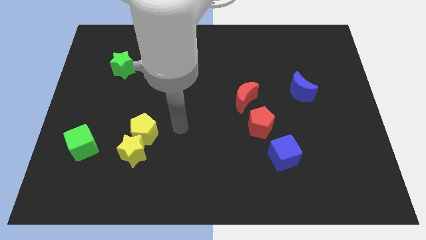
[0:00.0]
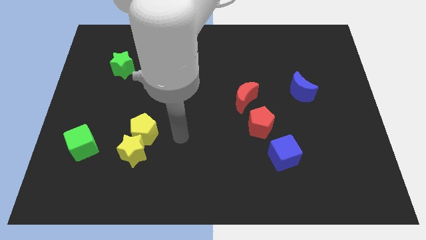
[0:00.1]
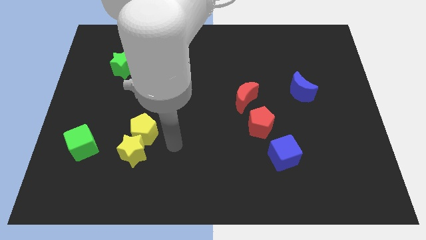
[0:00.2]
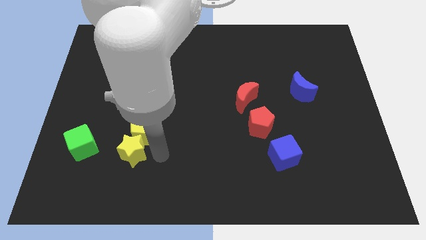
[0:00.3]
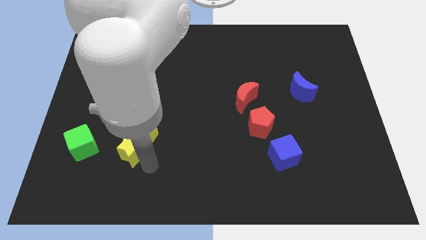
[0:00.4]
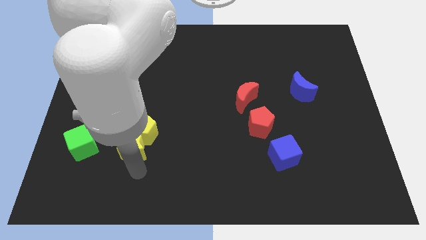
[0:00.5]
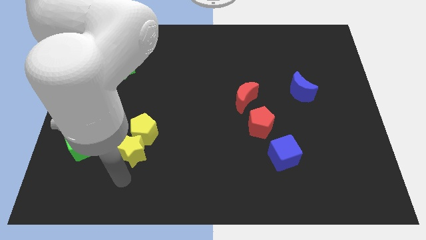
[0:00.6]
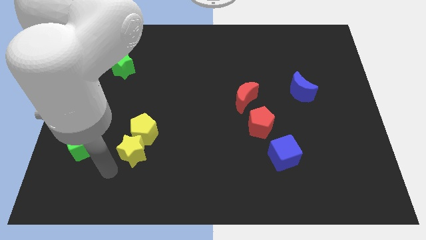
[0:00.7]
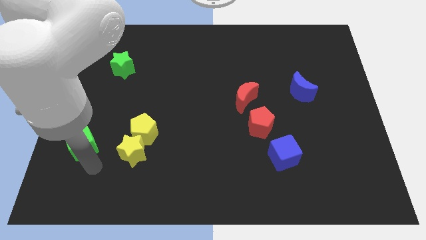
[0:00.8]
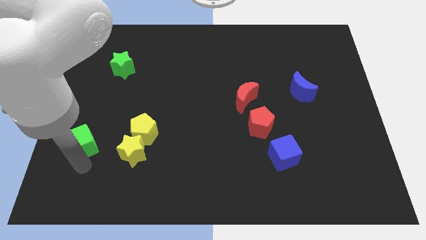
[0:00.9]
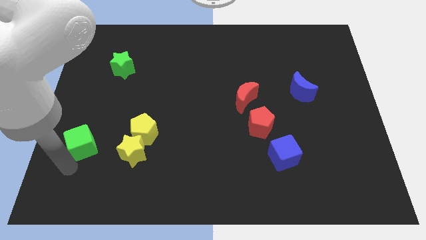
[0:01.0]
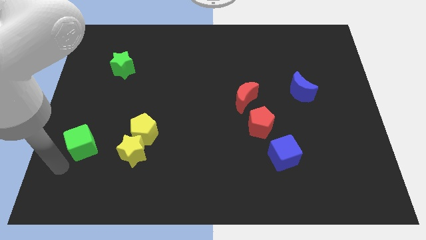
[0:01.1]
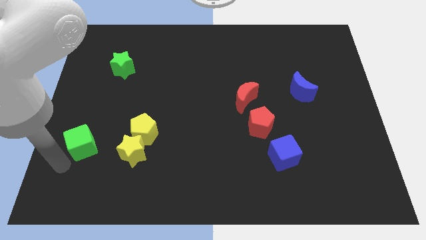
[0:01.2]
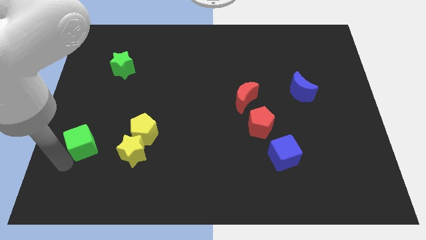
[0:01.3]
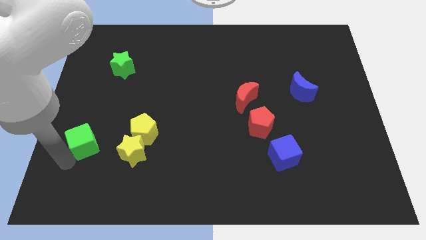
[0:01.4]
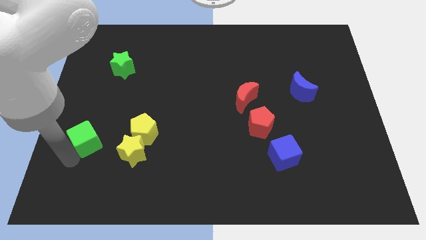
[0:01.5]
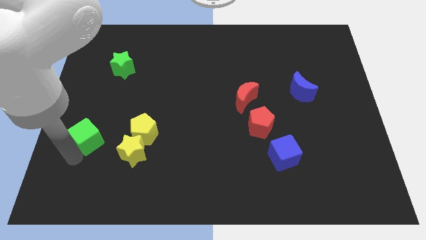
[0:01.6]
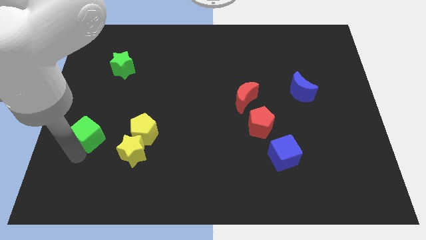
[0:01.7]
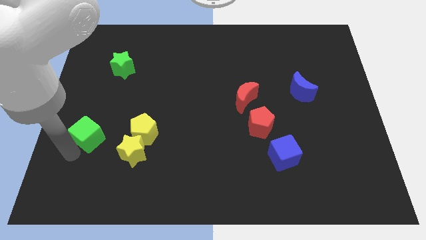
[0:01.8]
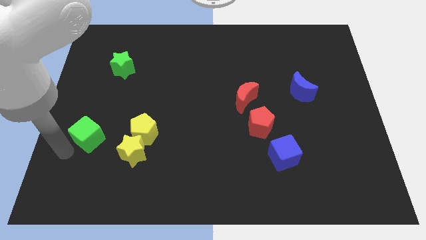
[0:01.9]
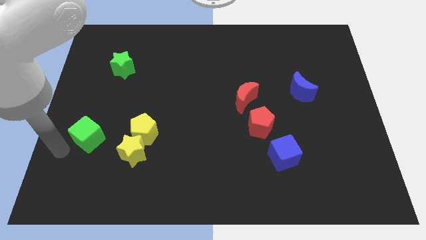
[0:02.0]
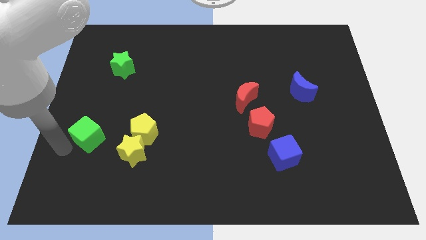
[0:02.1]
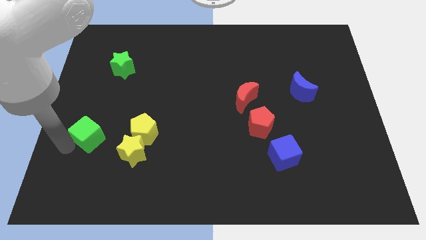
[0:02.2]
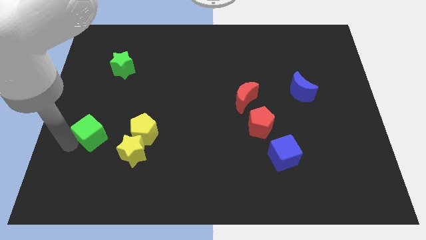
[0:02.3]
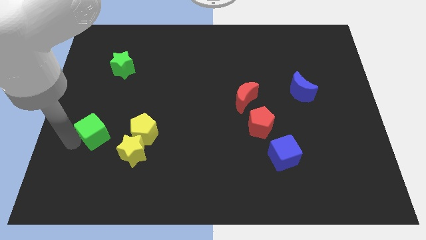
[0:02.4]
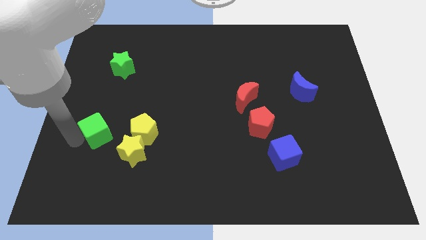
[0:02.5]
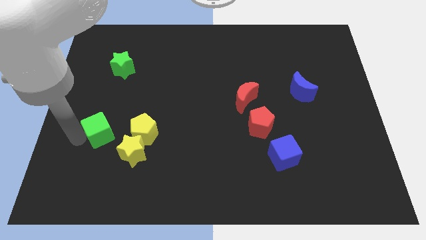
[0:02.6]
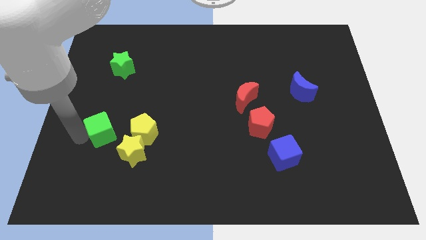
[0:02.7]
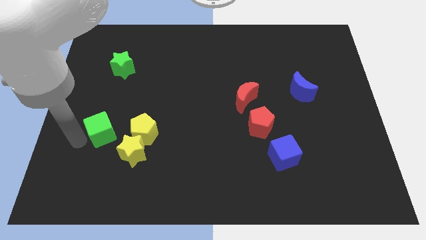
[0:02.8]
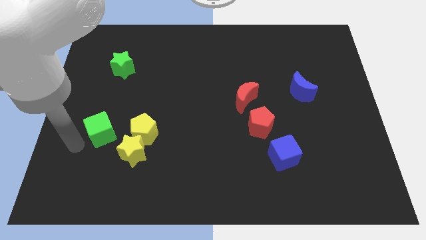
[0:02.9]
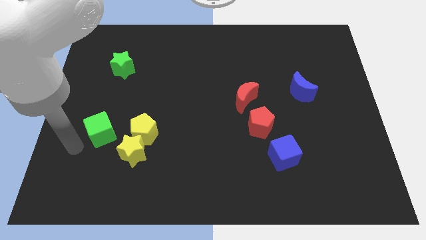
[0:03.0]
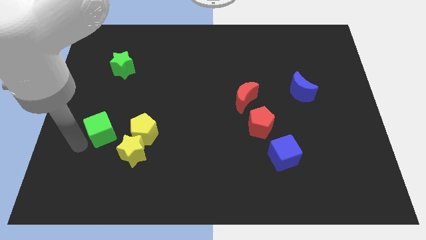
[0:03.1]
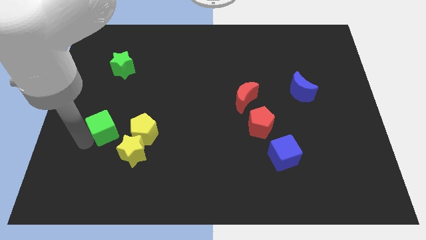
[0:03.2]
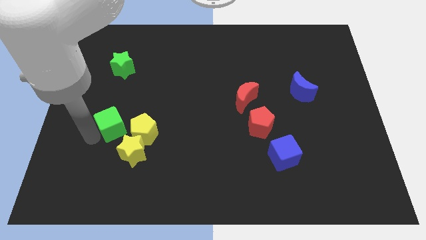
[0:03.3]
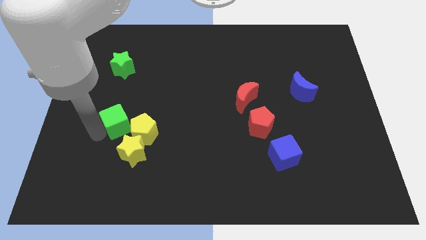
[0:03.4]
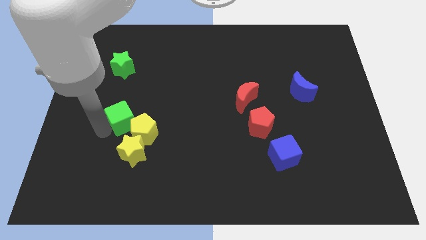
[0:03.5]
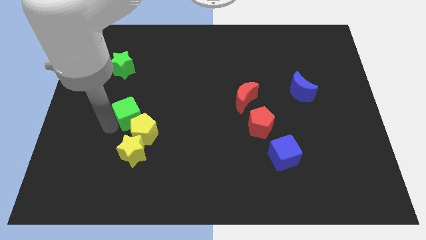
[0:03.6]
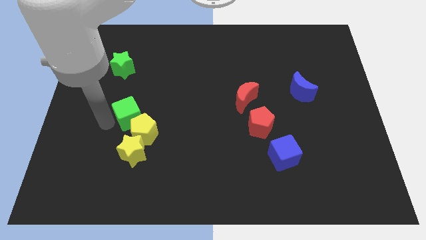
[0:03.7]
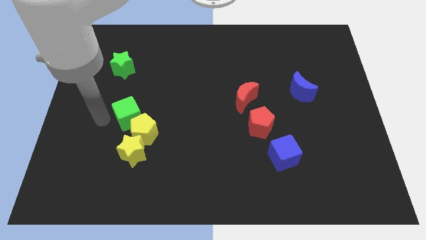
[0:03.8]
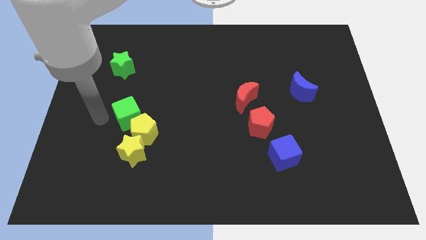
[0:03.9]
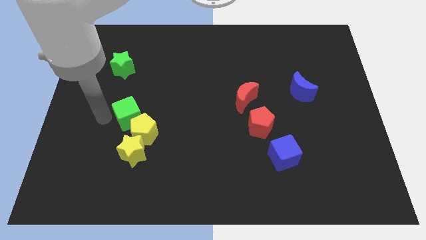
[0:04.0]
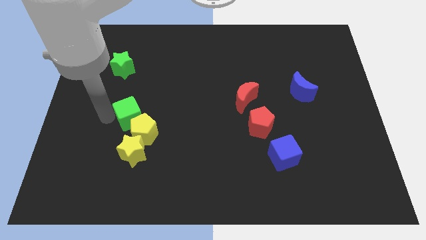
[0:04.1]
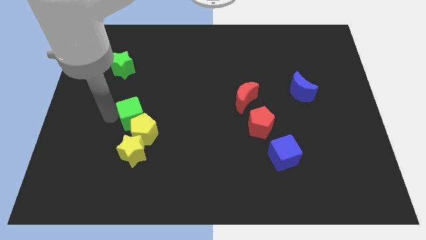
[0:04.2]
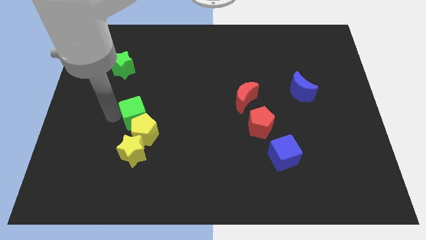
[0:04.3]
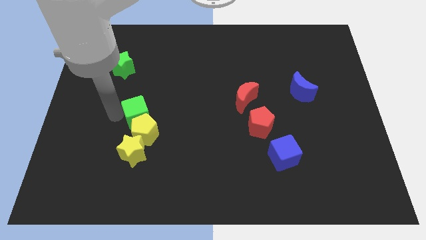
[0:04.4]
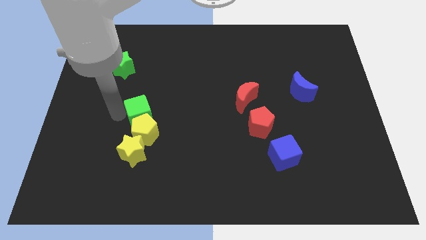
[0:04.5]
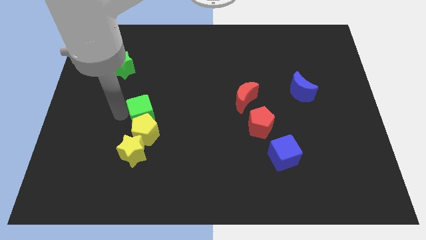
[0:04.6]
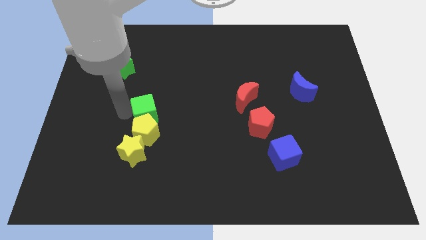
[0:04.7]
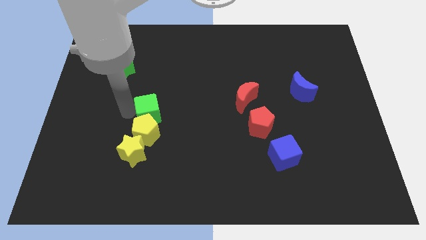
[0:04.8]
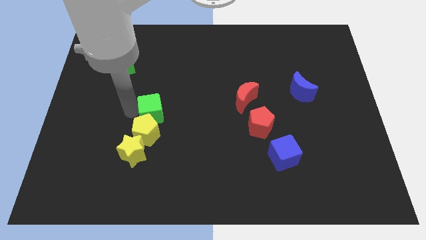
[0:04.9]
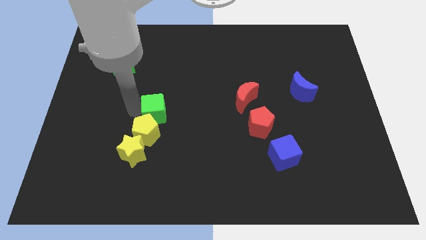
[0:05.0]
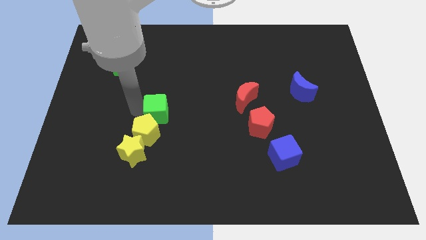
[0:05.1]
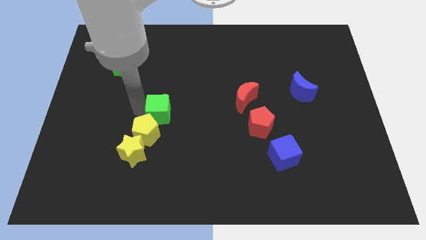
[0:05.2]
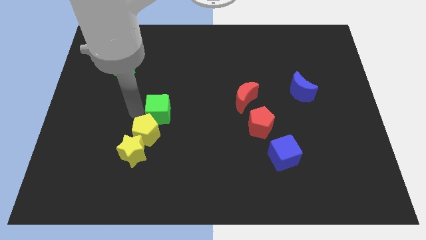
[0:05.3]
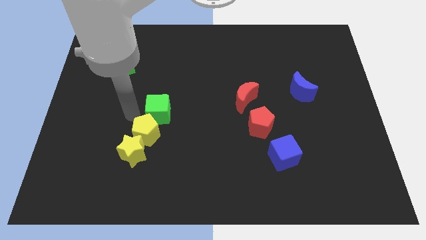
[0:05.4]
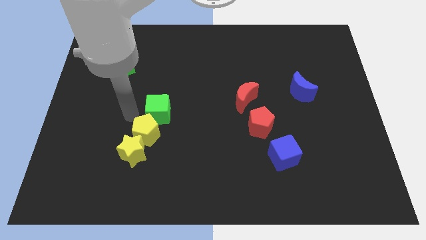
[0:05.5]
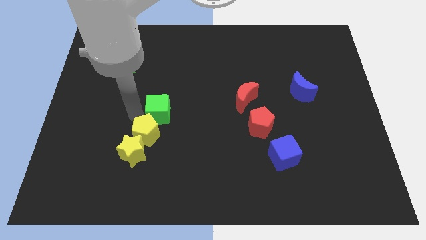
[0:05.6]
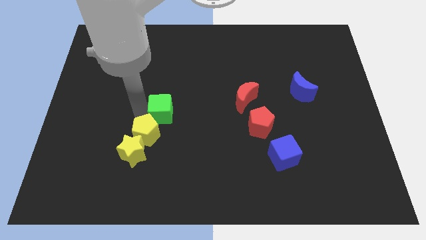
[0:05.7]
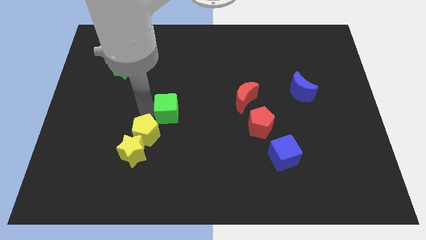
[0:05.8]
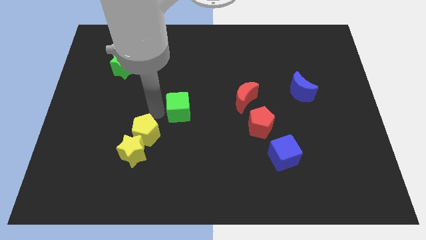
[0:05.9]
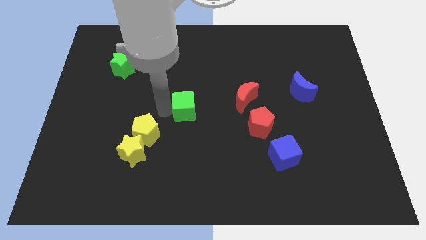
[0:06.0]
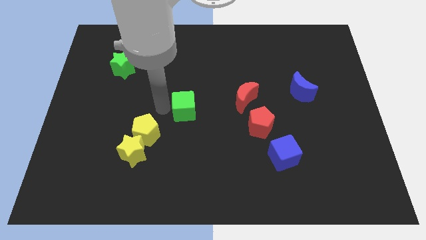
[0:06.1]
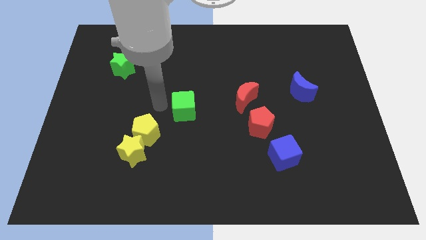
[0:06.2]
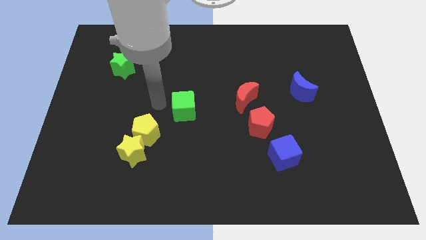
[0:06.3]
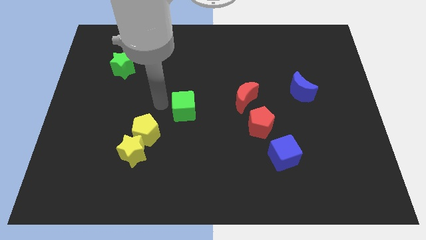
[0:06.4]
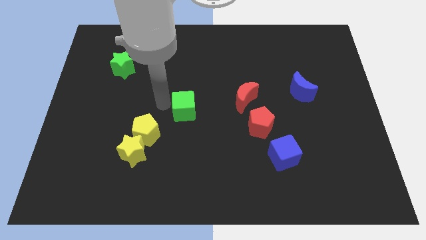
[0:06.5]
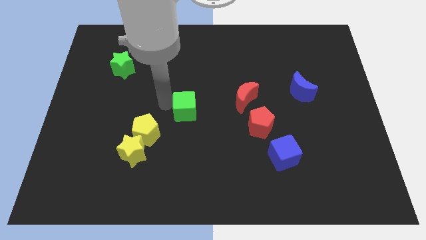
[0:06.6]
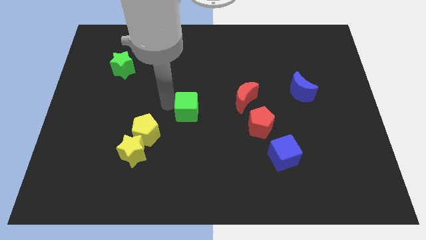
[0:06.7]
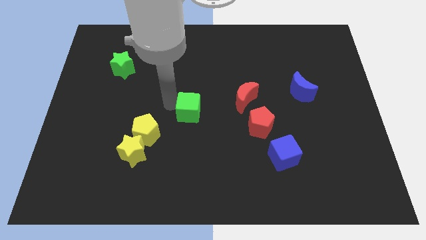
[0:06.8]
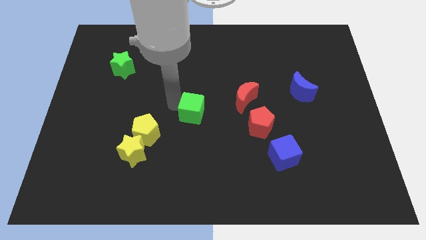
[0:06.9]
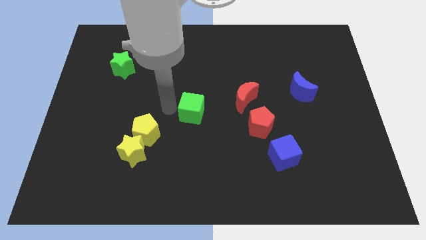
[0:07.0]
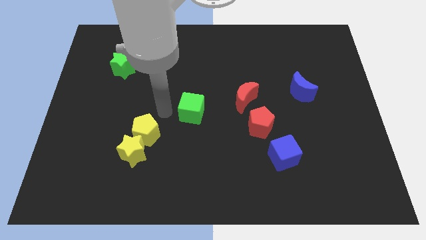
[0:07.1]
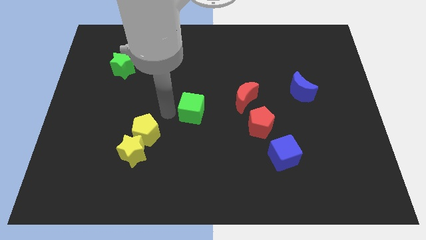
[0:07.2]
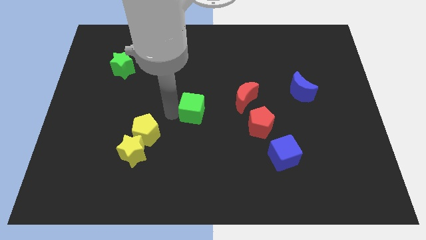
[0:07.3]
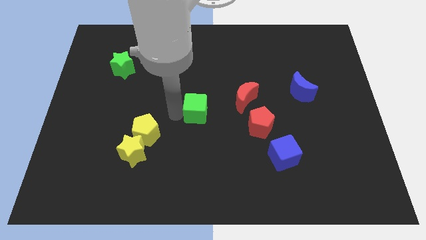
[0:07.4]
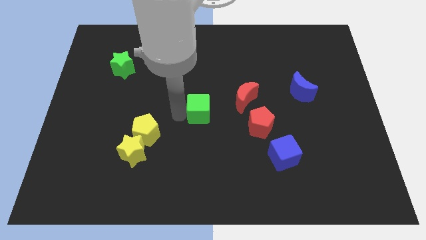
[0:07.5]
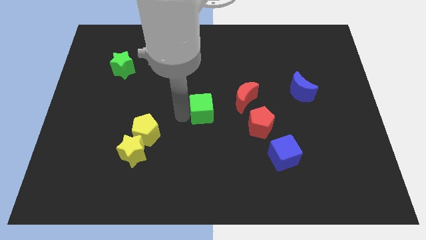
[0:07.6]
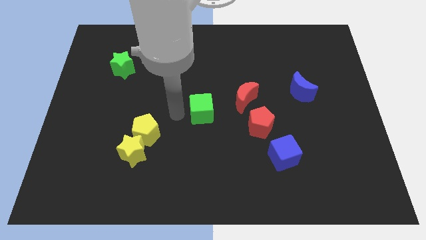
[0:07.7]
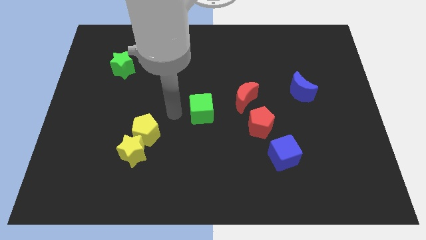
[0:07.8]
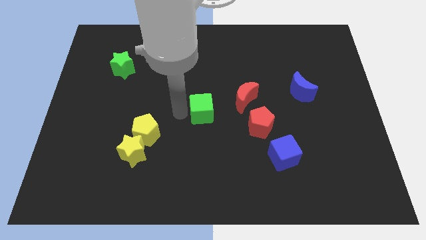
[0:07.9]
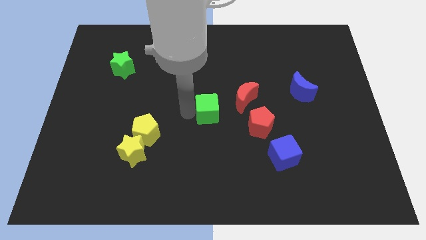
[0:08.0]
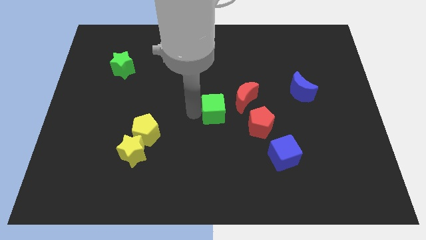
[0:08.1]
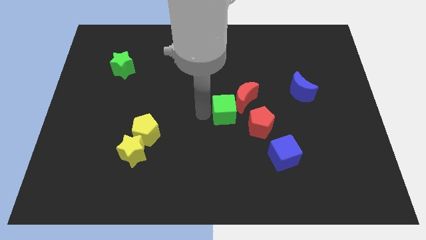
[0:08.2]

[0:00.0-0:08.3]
push the green cube next to the red moon
